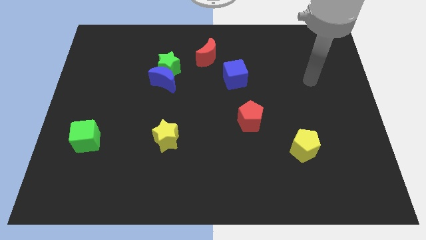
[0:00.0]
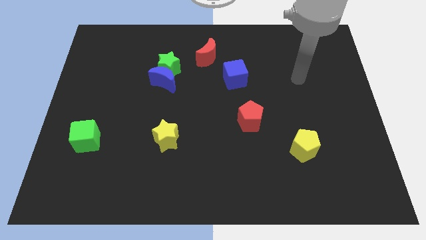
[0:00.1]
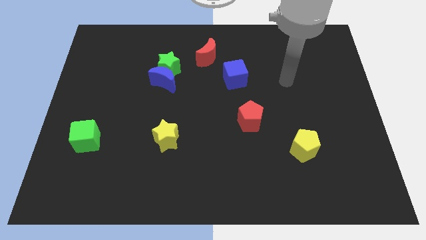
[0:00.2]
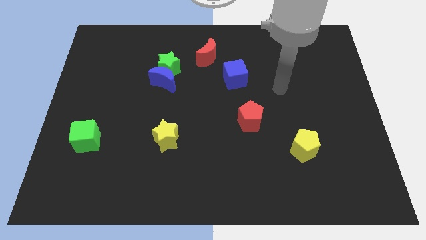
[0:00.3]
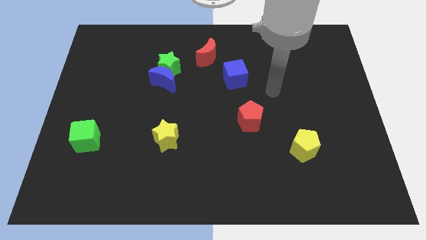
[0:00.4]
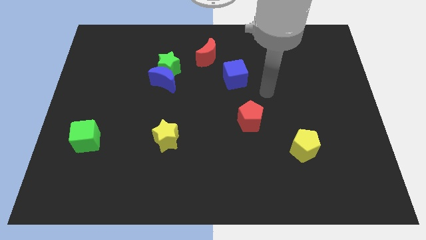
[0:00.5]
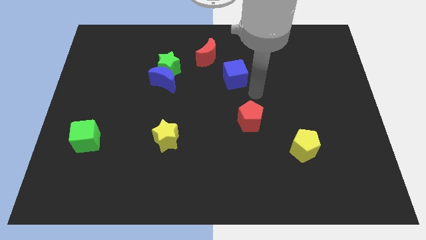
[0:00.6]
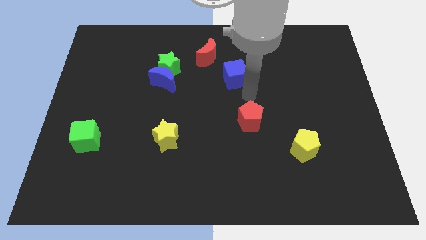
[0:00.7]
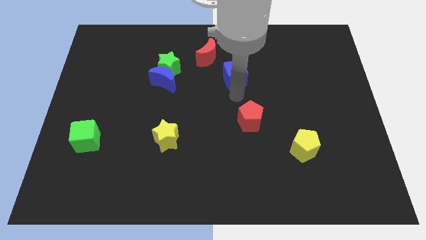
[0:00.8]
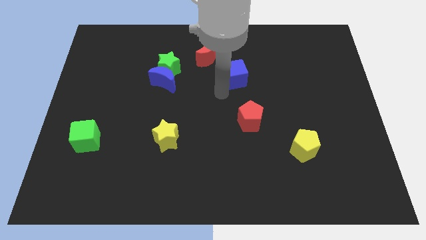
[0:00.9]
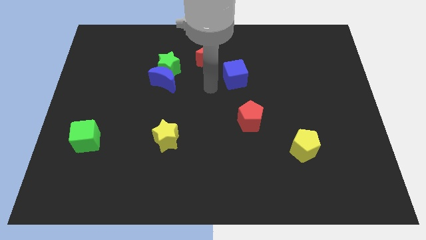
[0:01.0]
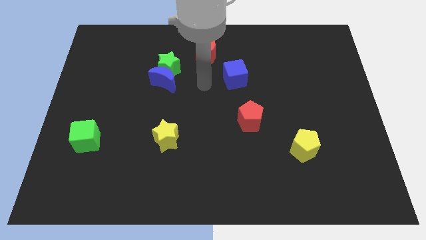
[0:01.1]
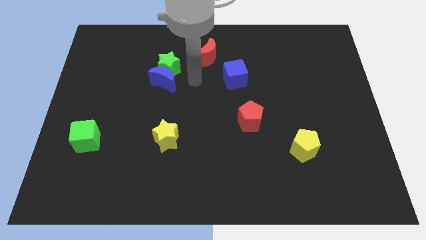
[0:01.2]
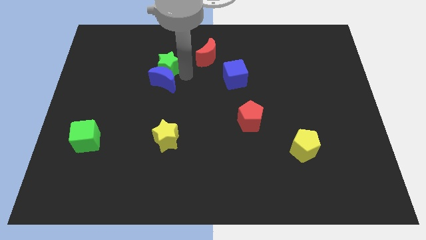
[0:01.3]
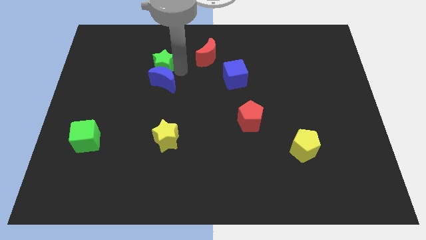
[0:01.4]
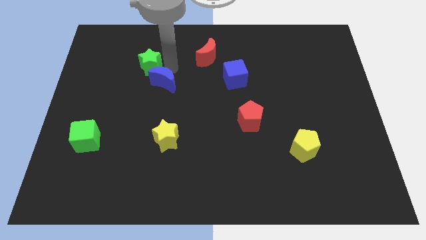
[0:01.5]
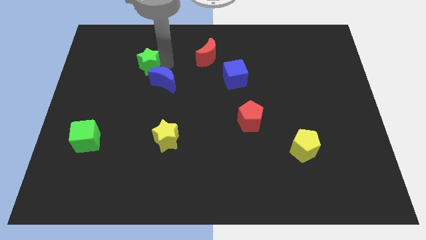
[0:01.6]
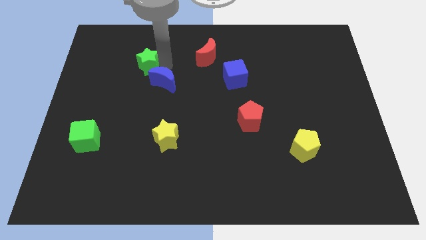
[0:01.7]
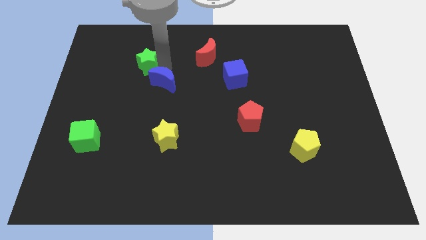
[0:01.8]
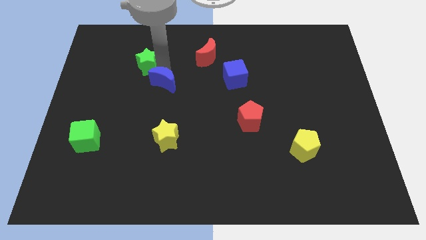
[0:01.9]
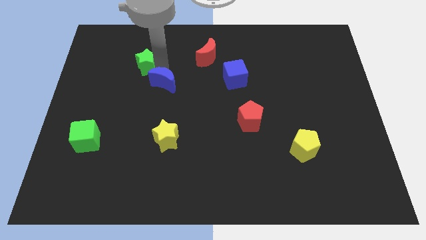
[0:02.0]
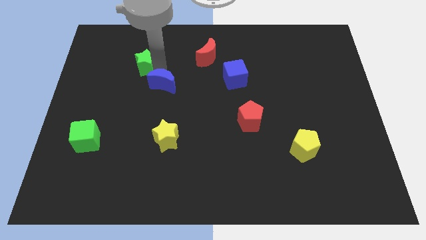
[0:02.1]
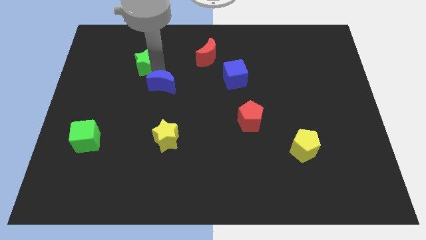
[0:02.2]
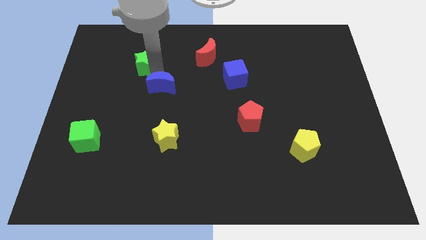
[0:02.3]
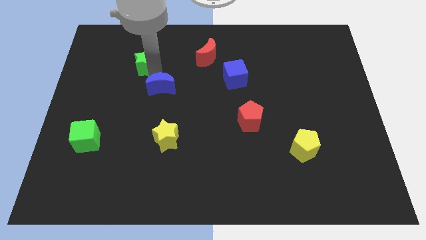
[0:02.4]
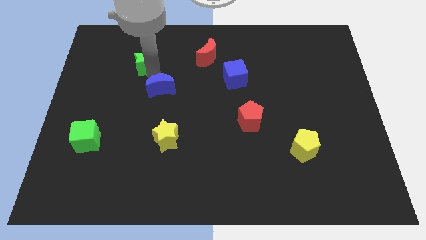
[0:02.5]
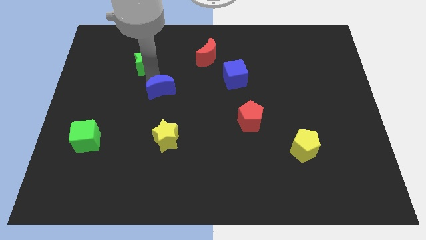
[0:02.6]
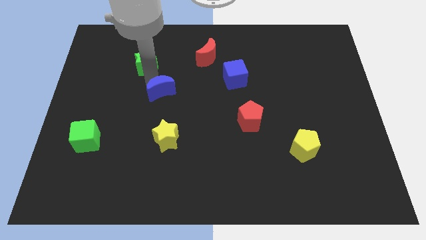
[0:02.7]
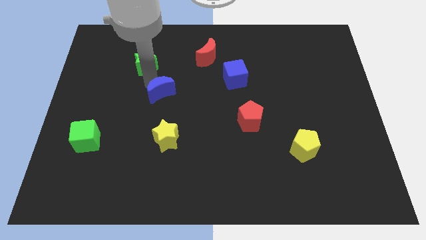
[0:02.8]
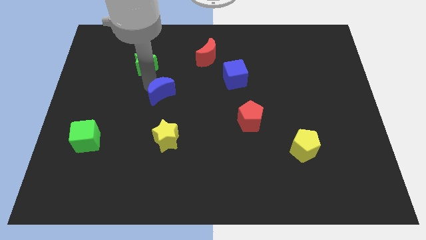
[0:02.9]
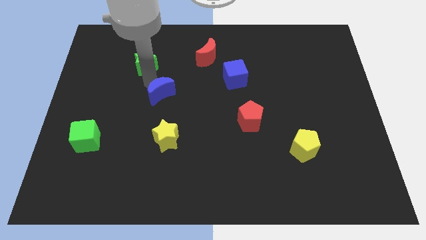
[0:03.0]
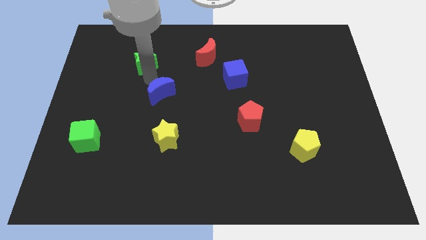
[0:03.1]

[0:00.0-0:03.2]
move the blue moon away from the green star

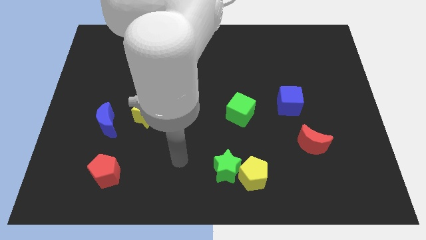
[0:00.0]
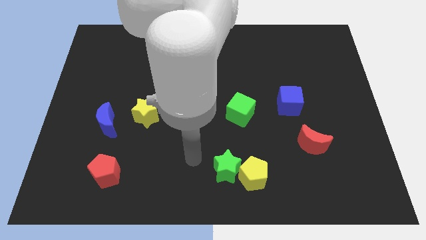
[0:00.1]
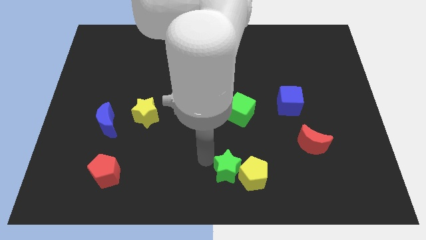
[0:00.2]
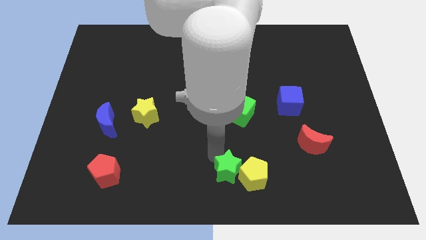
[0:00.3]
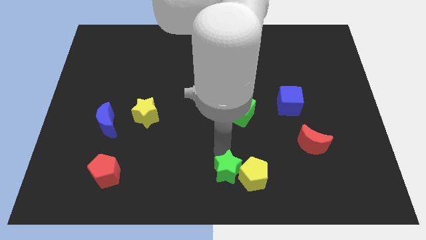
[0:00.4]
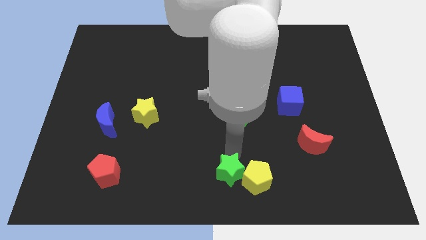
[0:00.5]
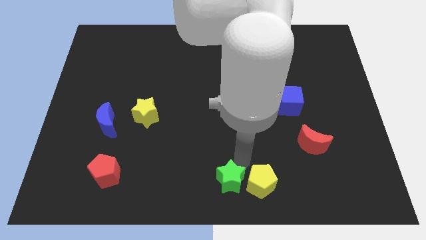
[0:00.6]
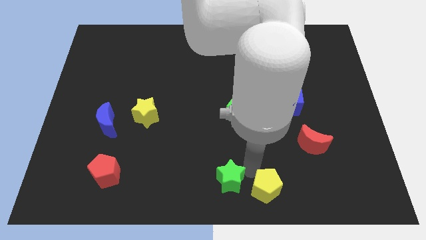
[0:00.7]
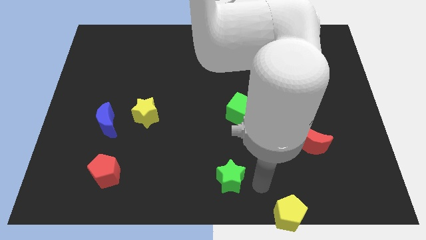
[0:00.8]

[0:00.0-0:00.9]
move the green star away from the yellow pentagon

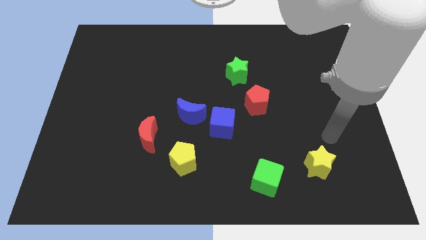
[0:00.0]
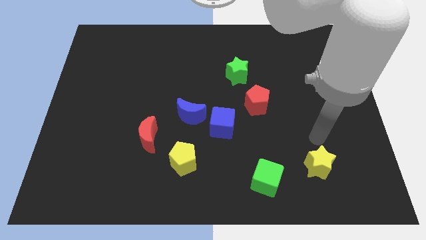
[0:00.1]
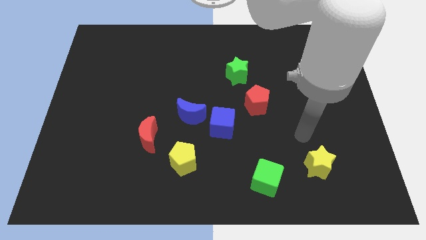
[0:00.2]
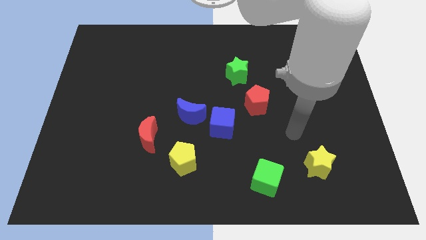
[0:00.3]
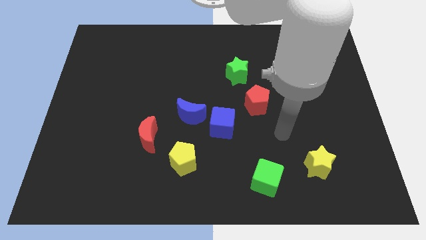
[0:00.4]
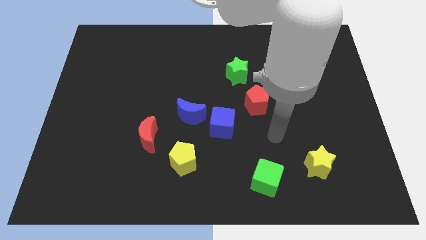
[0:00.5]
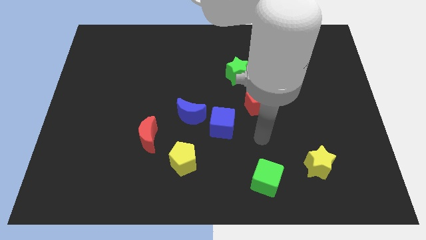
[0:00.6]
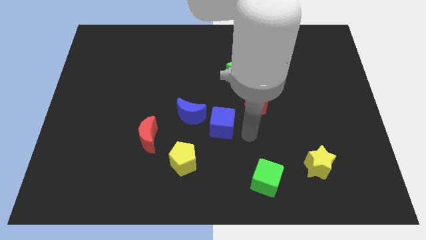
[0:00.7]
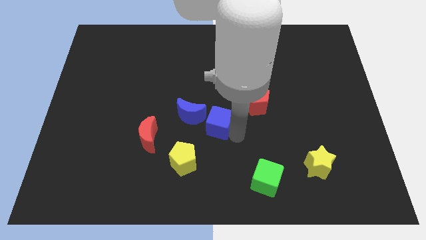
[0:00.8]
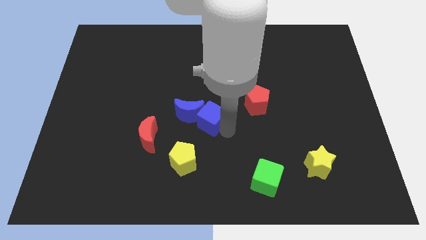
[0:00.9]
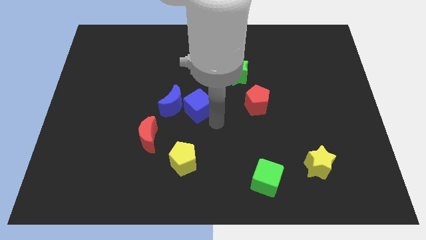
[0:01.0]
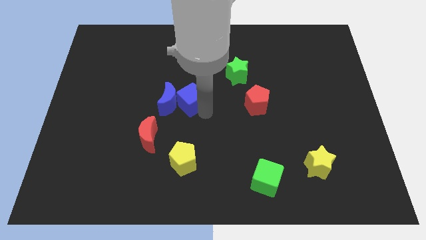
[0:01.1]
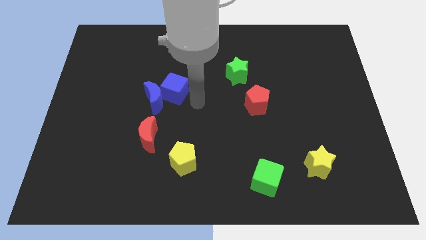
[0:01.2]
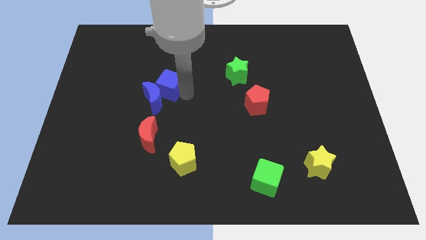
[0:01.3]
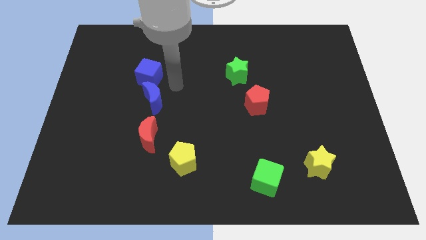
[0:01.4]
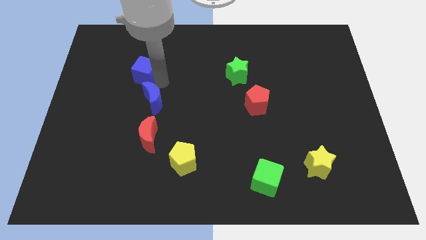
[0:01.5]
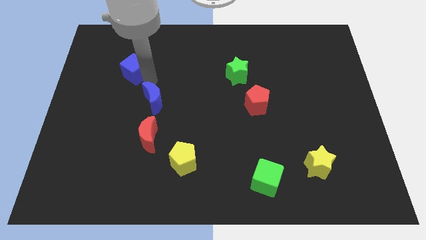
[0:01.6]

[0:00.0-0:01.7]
separate the blue moon from the blue cube

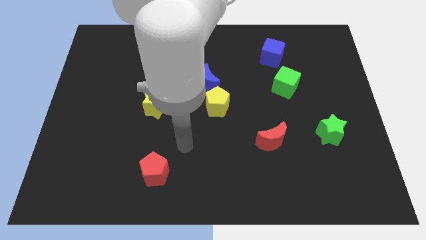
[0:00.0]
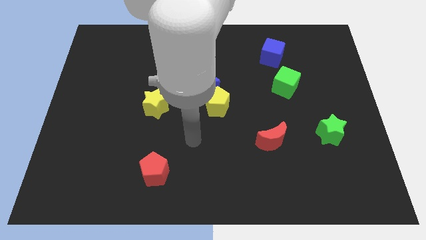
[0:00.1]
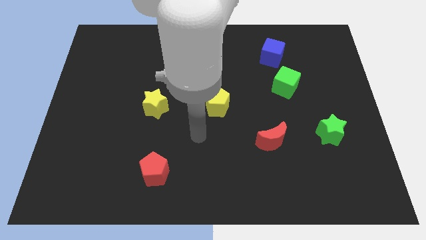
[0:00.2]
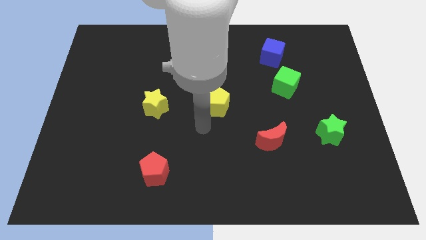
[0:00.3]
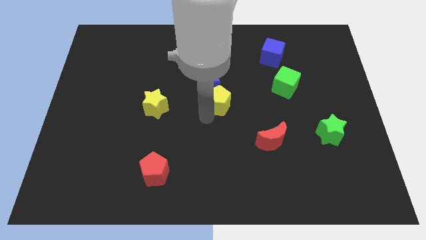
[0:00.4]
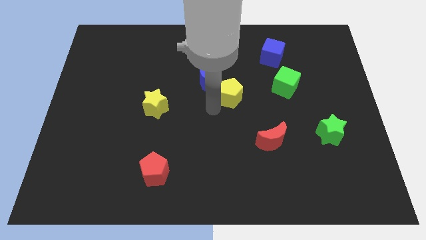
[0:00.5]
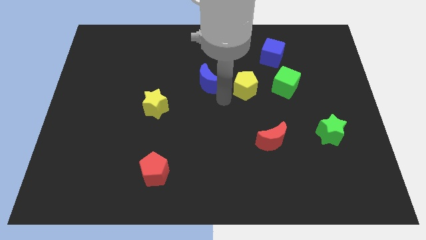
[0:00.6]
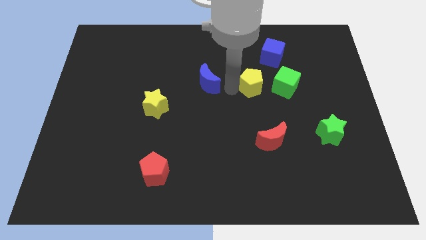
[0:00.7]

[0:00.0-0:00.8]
pull the blue moon apart from the yellow pentagon

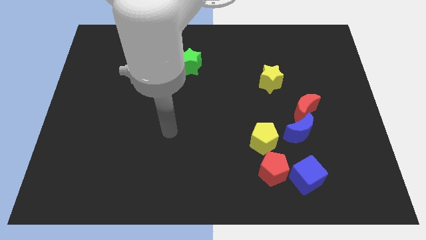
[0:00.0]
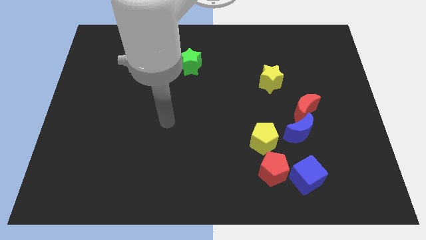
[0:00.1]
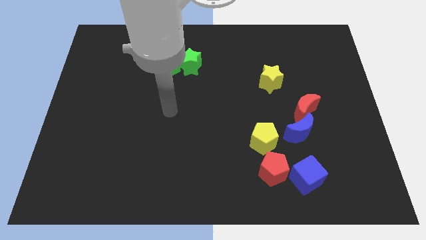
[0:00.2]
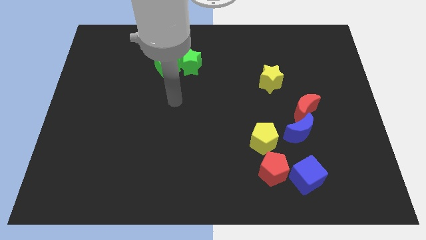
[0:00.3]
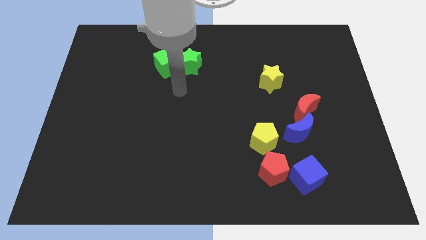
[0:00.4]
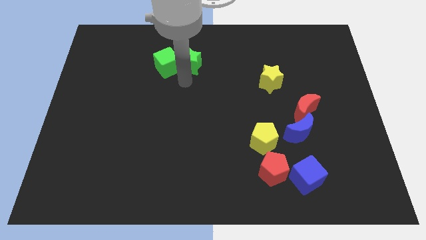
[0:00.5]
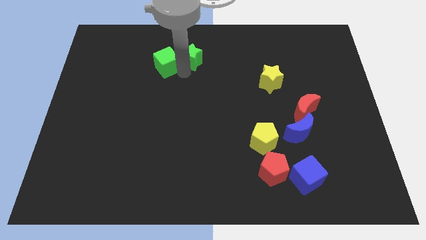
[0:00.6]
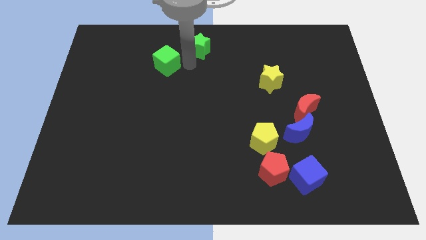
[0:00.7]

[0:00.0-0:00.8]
pull the green cube apart from the green star

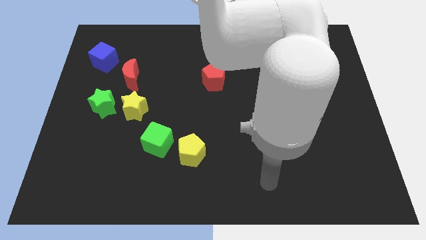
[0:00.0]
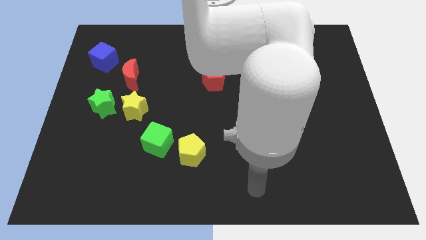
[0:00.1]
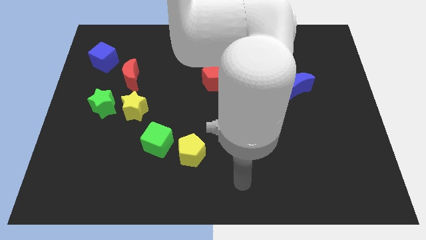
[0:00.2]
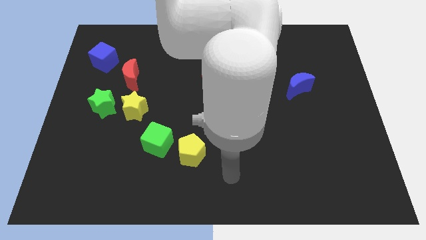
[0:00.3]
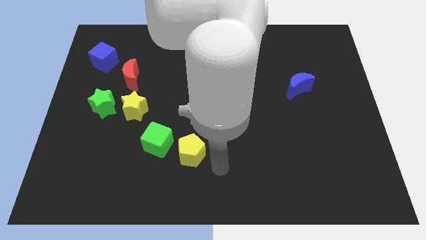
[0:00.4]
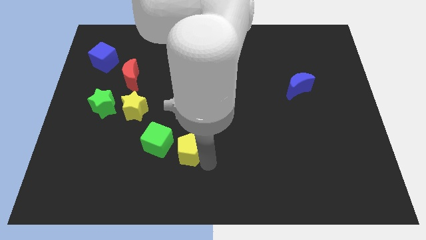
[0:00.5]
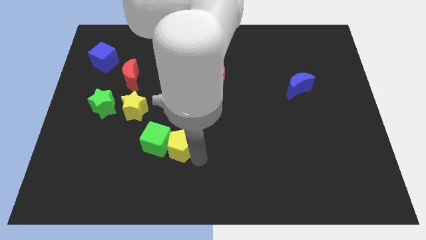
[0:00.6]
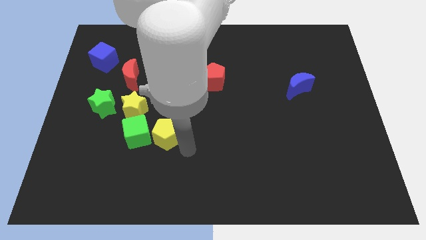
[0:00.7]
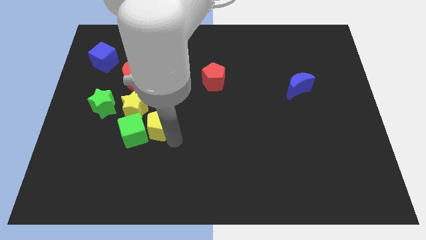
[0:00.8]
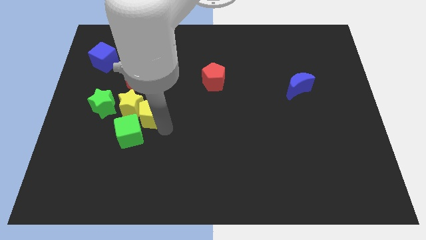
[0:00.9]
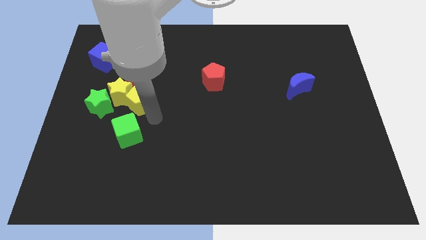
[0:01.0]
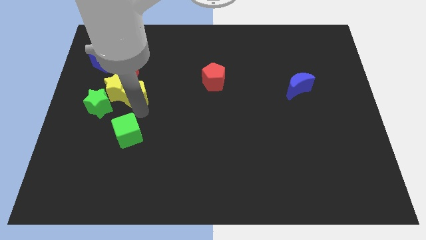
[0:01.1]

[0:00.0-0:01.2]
move the green cube away from the yellow pentagon

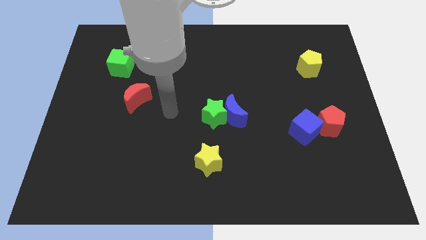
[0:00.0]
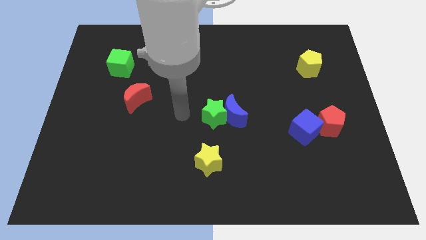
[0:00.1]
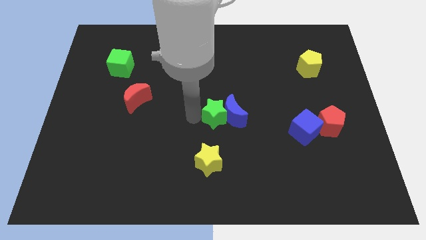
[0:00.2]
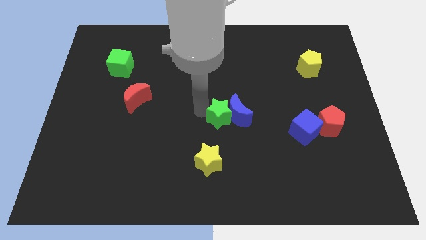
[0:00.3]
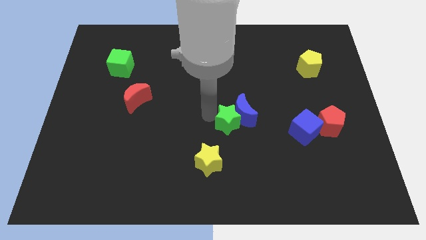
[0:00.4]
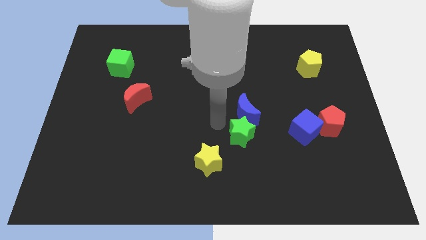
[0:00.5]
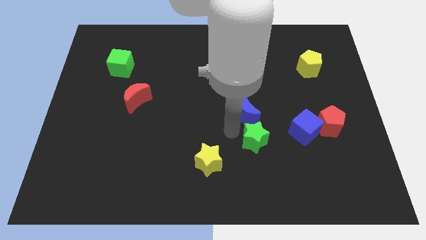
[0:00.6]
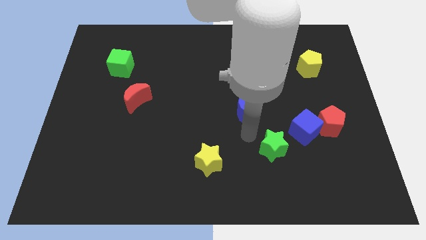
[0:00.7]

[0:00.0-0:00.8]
separate the blue moon from the green star
